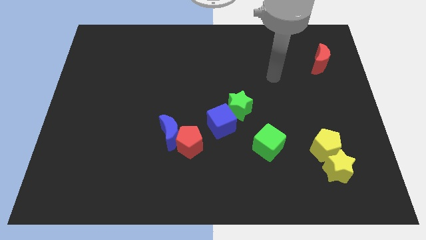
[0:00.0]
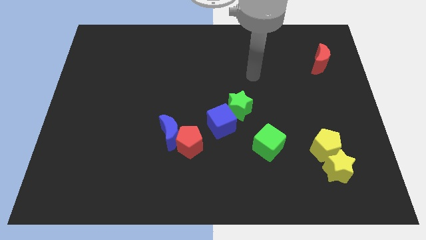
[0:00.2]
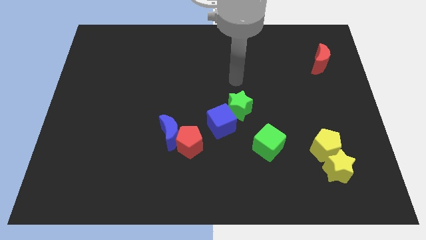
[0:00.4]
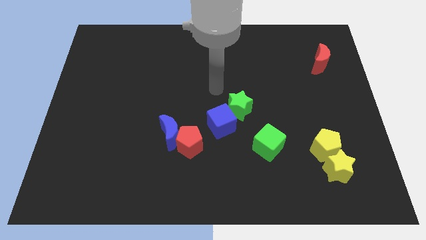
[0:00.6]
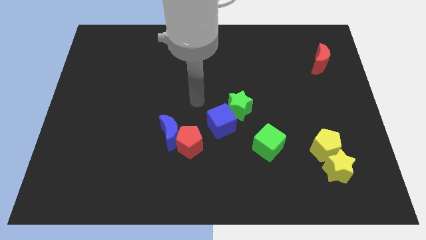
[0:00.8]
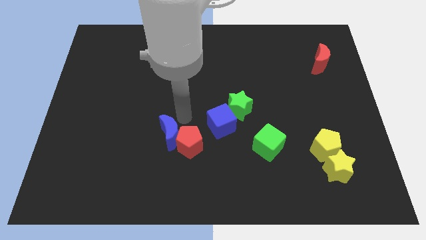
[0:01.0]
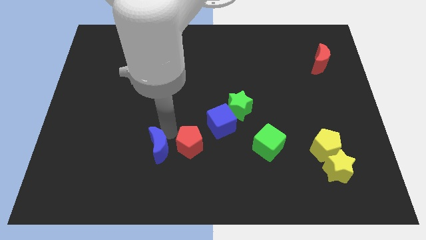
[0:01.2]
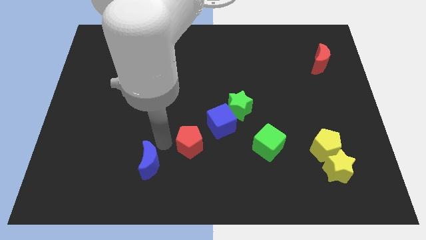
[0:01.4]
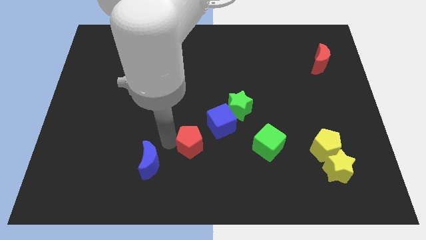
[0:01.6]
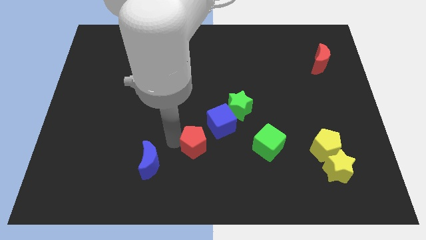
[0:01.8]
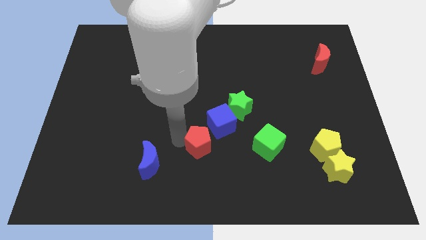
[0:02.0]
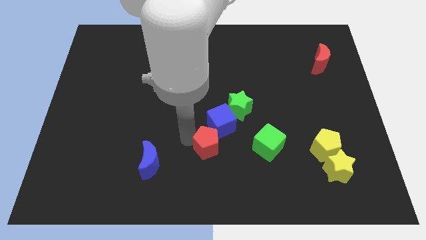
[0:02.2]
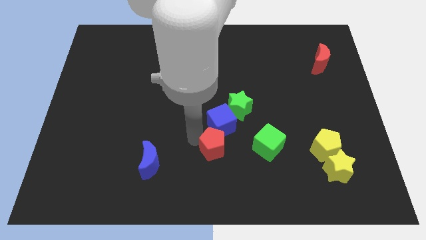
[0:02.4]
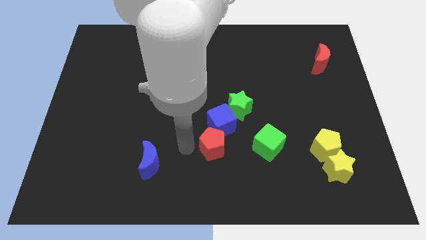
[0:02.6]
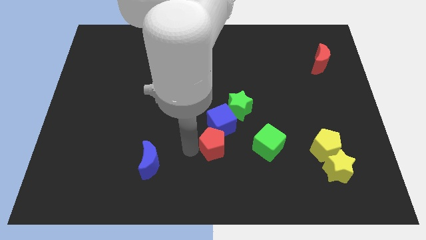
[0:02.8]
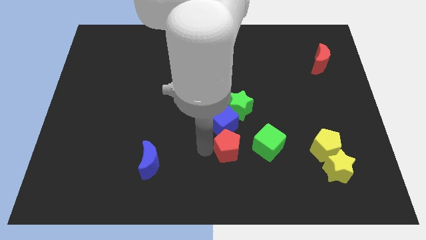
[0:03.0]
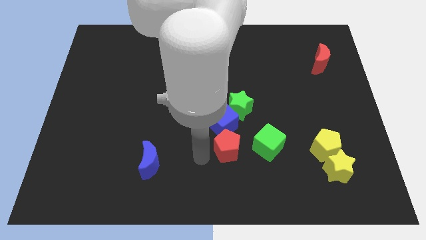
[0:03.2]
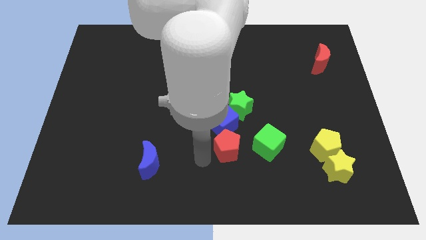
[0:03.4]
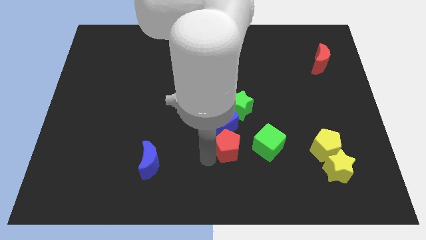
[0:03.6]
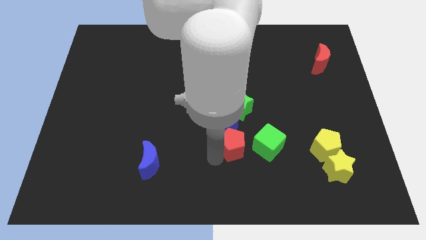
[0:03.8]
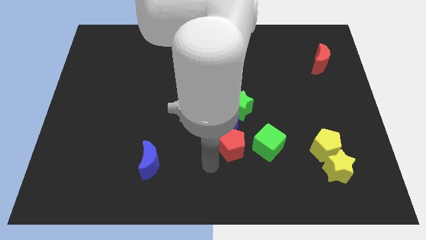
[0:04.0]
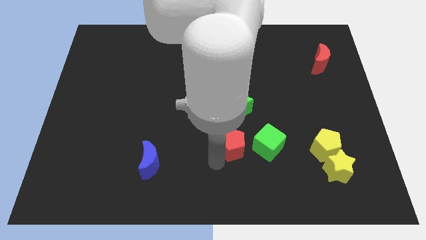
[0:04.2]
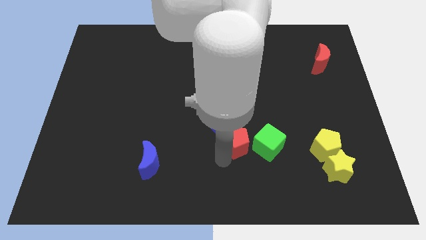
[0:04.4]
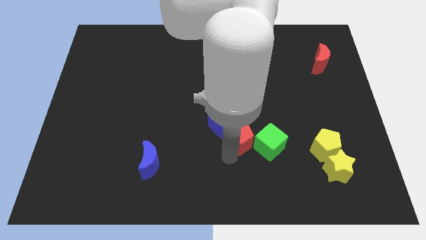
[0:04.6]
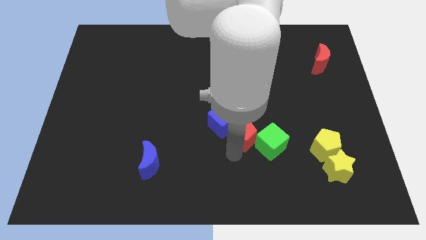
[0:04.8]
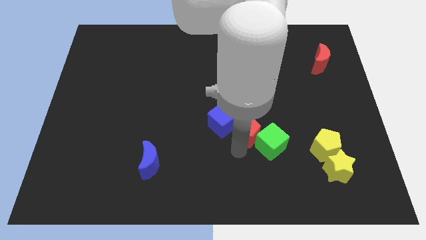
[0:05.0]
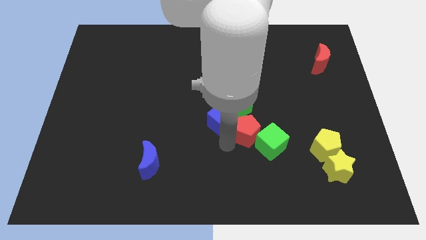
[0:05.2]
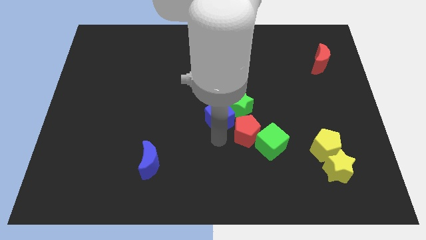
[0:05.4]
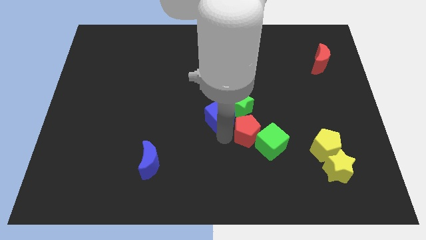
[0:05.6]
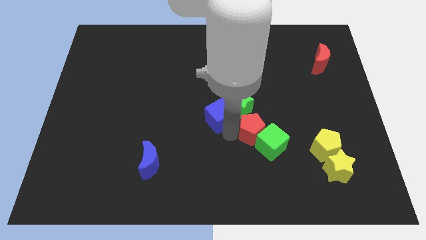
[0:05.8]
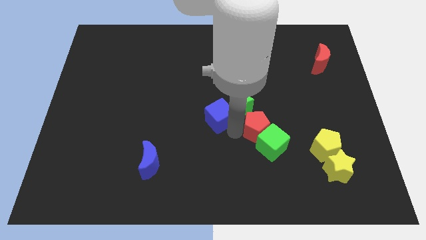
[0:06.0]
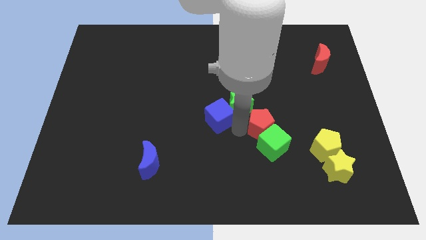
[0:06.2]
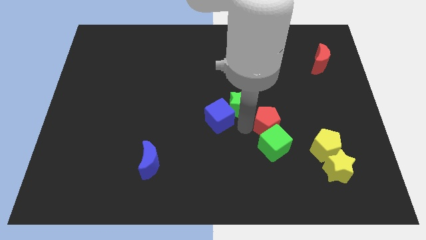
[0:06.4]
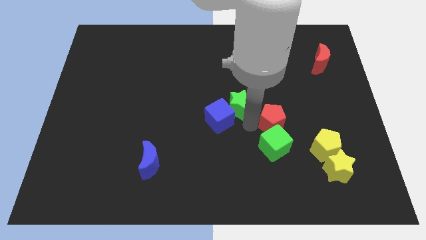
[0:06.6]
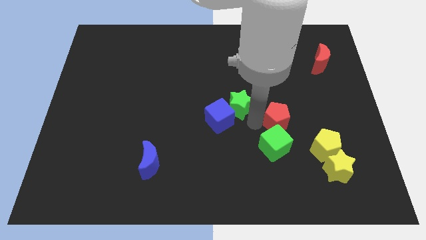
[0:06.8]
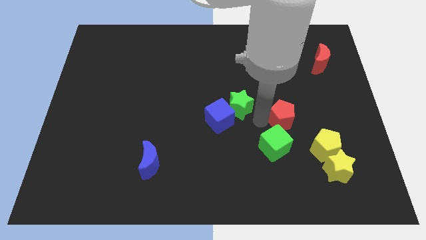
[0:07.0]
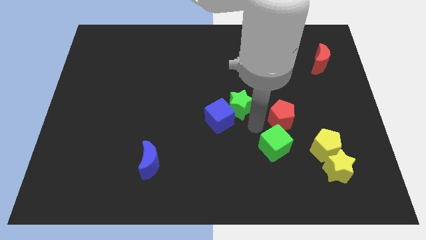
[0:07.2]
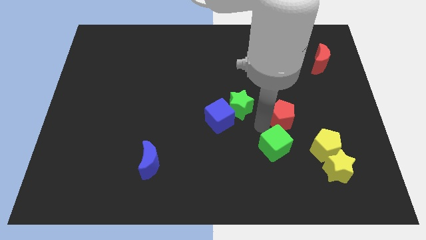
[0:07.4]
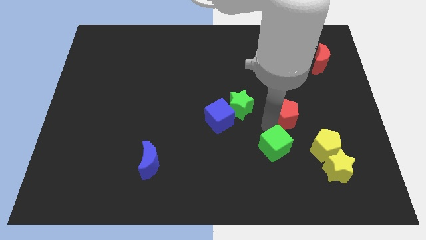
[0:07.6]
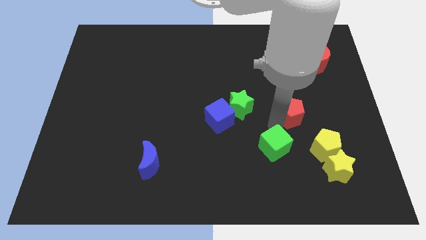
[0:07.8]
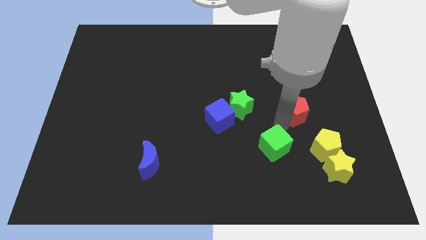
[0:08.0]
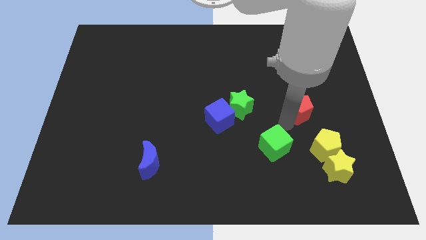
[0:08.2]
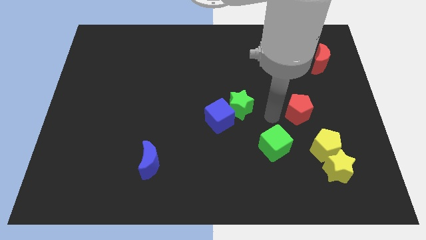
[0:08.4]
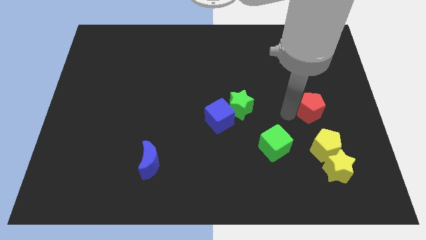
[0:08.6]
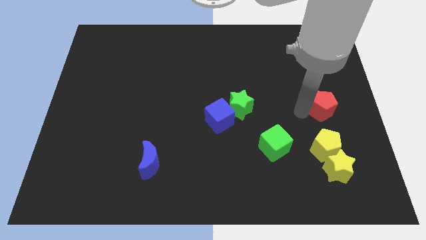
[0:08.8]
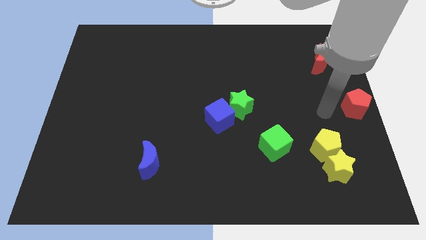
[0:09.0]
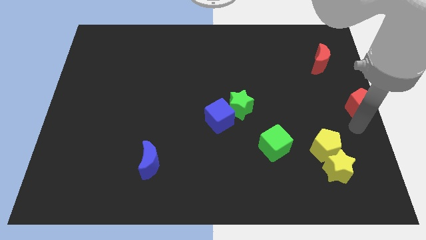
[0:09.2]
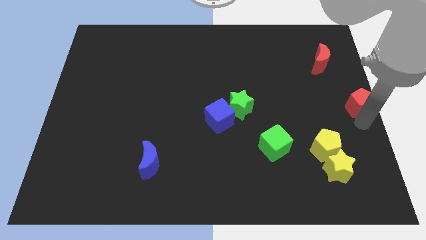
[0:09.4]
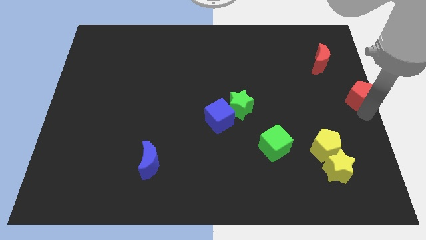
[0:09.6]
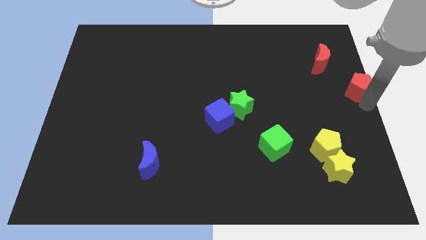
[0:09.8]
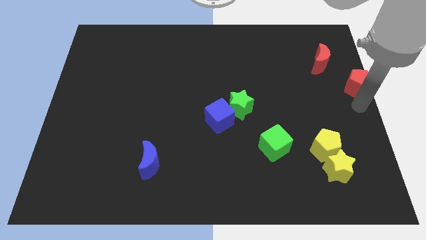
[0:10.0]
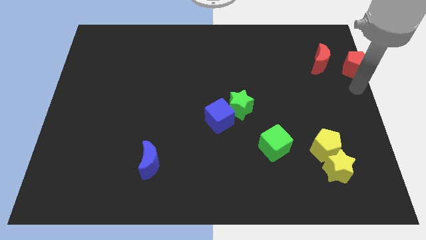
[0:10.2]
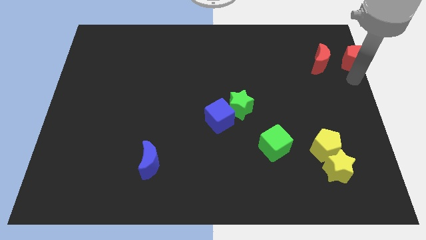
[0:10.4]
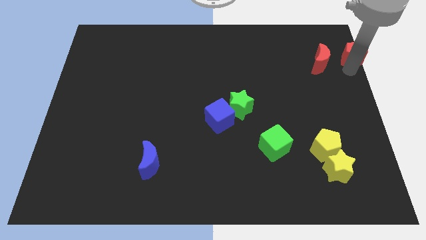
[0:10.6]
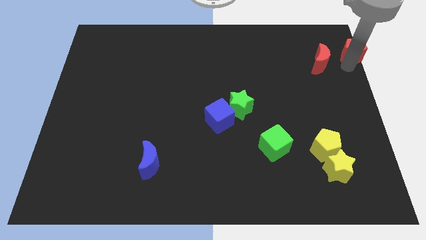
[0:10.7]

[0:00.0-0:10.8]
slide the red pentagon to the upper right corner

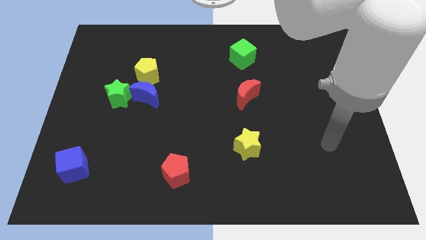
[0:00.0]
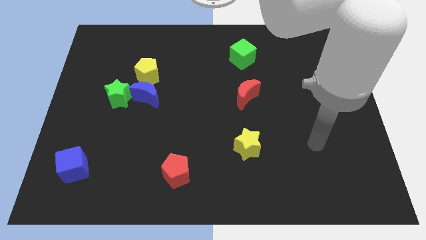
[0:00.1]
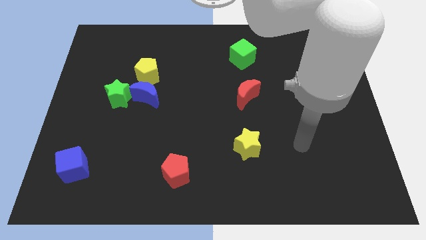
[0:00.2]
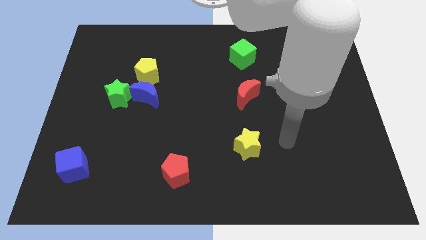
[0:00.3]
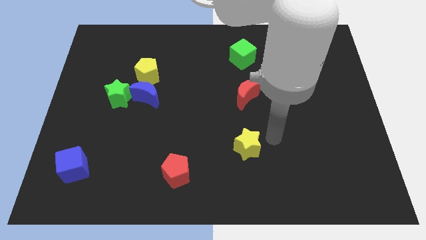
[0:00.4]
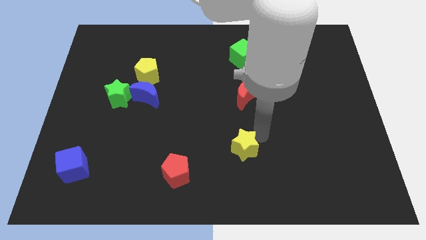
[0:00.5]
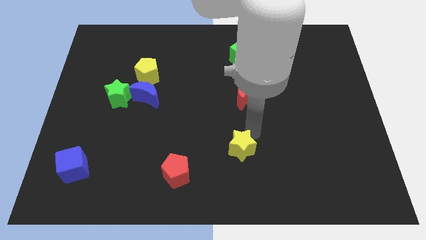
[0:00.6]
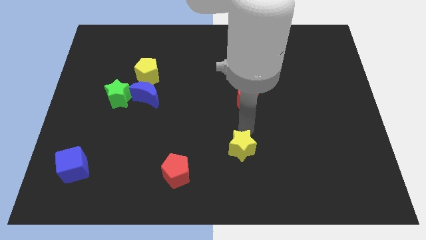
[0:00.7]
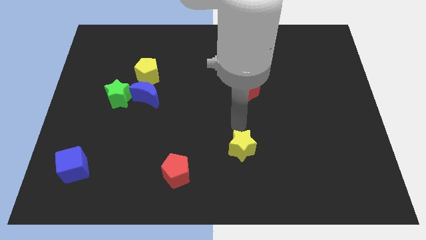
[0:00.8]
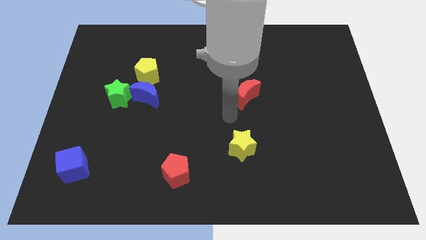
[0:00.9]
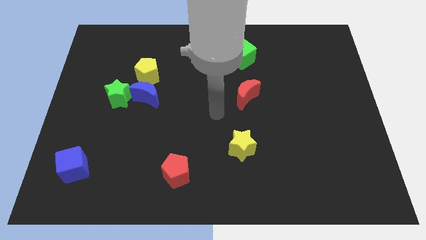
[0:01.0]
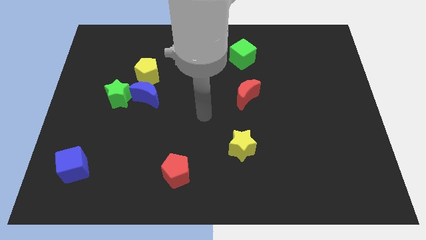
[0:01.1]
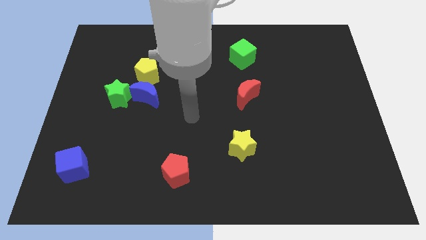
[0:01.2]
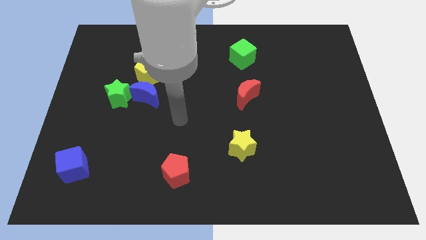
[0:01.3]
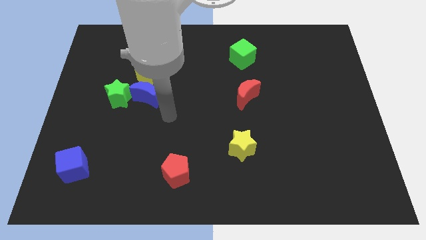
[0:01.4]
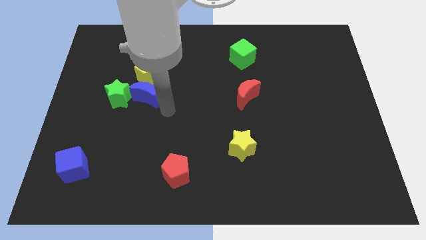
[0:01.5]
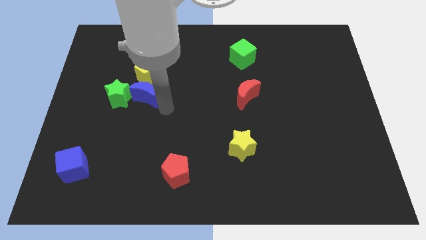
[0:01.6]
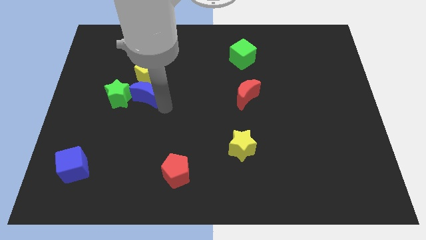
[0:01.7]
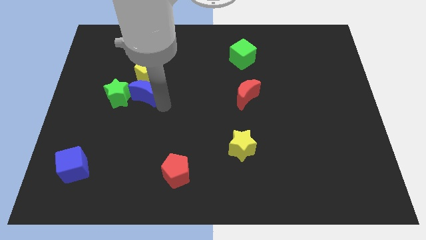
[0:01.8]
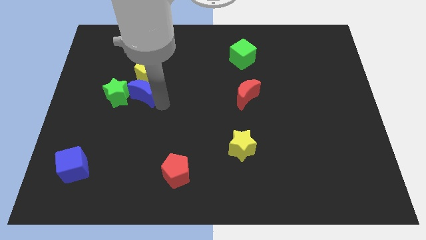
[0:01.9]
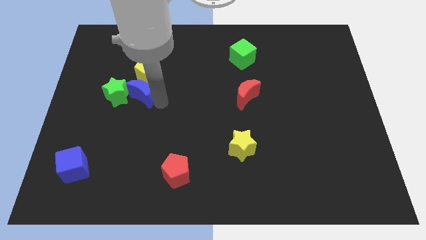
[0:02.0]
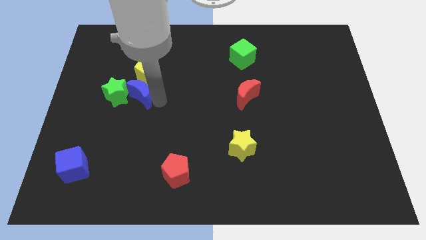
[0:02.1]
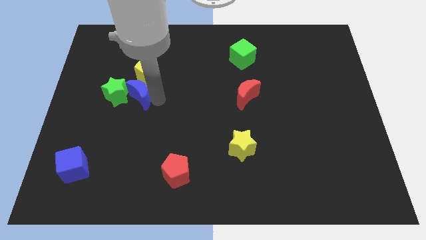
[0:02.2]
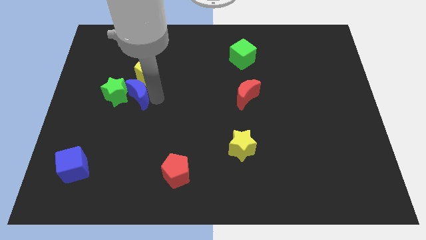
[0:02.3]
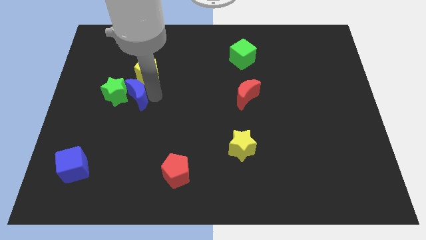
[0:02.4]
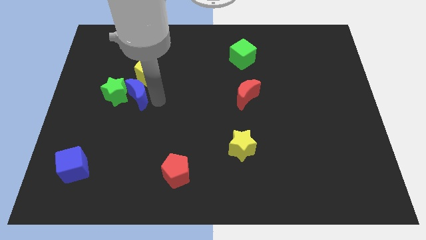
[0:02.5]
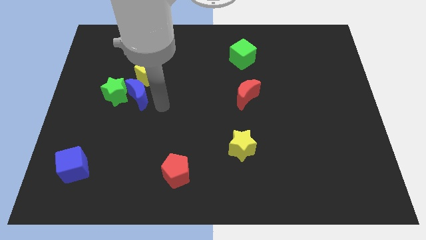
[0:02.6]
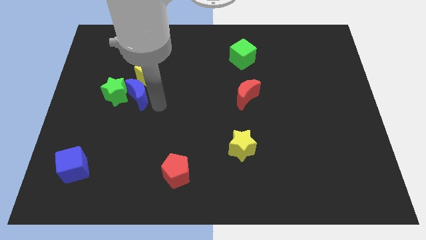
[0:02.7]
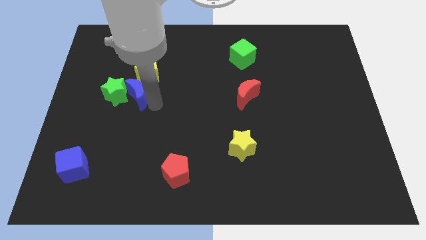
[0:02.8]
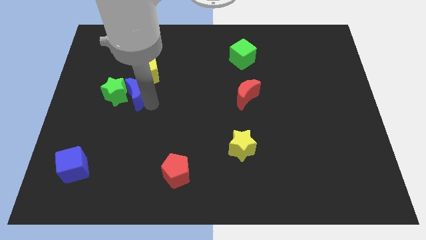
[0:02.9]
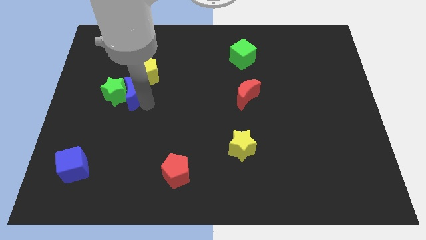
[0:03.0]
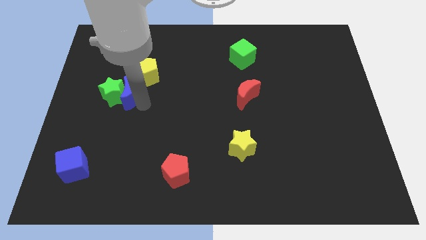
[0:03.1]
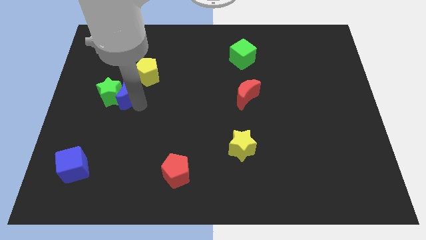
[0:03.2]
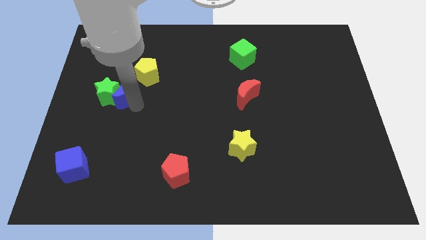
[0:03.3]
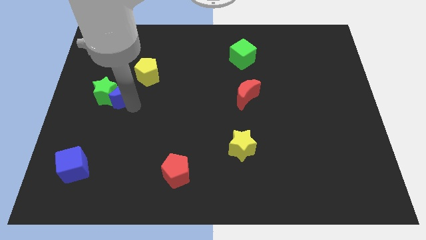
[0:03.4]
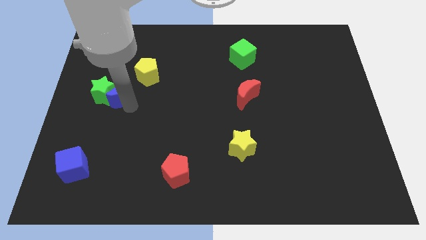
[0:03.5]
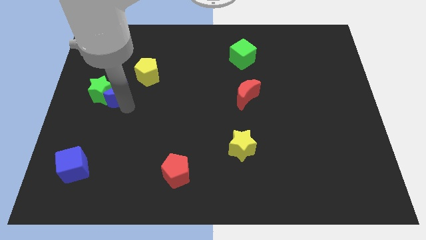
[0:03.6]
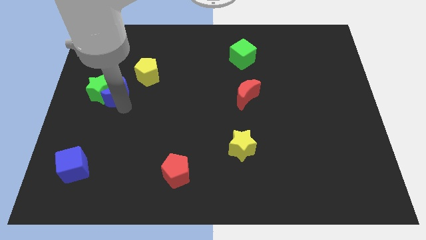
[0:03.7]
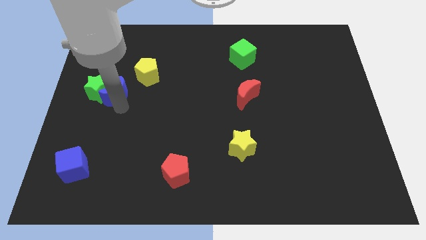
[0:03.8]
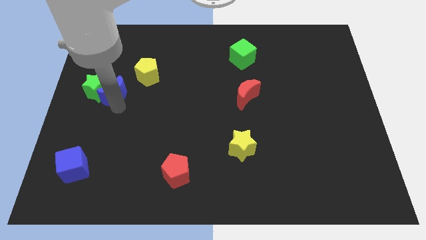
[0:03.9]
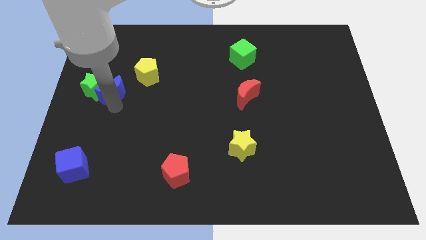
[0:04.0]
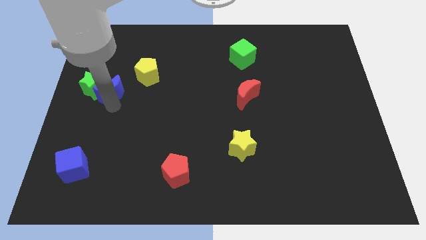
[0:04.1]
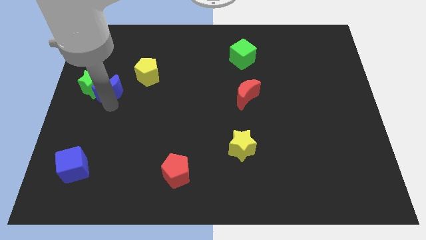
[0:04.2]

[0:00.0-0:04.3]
push the blue moon to the left side of the board
